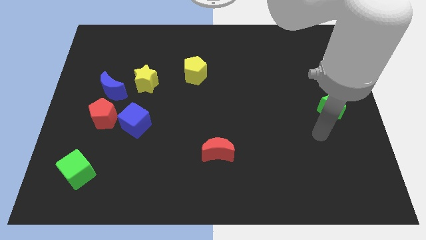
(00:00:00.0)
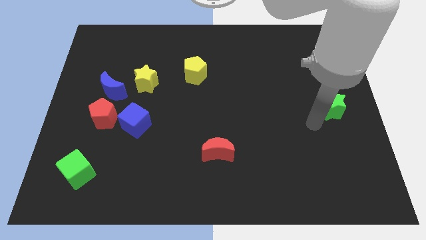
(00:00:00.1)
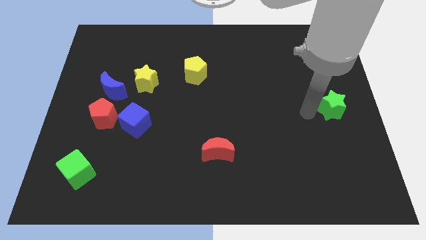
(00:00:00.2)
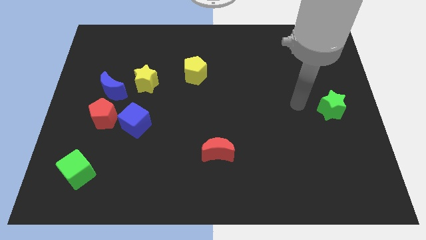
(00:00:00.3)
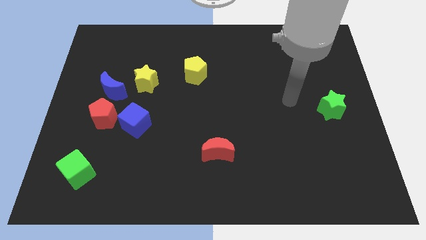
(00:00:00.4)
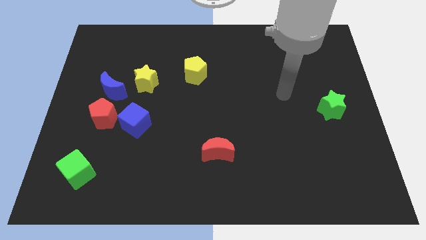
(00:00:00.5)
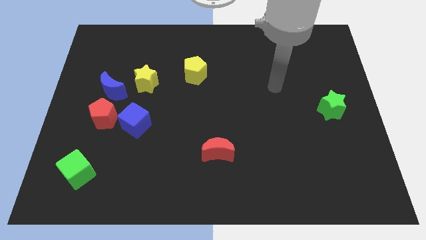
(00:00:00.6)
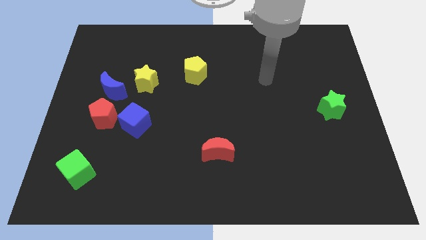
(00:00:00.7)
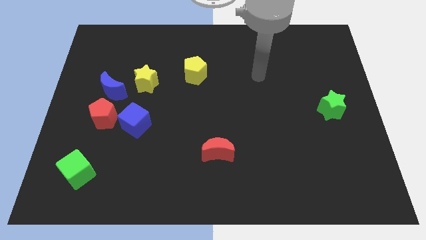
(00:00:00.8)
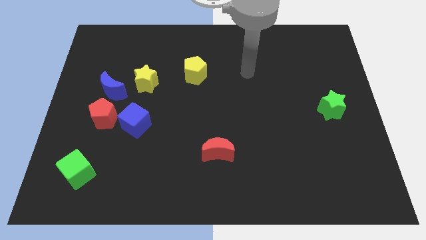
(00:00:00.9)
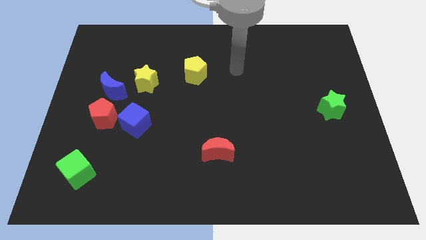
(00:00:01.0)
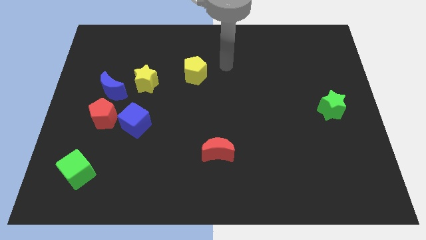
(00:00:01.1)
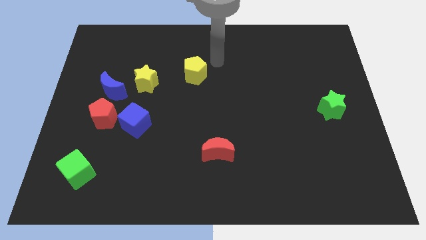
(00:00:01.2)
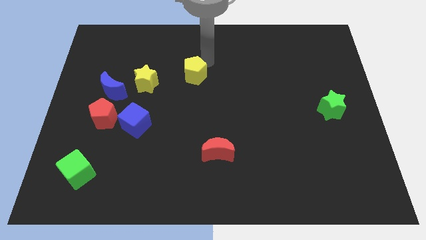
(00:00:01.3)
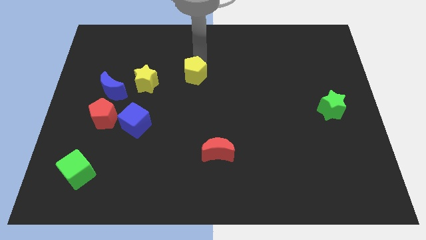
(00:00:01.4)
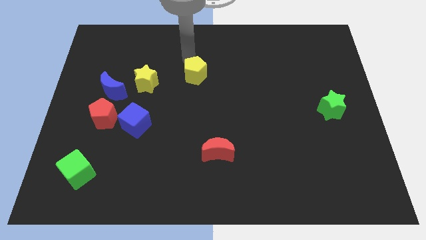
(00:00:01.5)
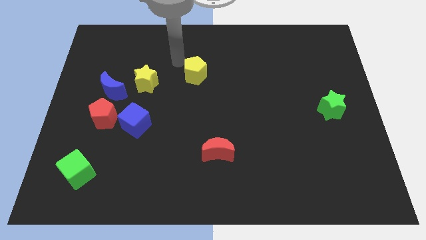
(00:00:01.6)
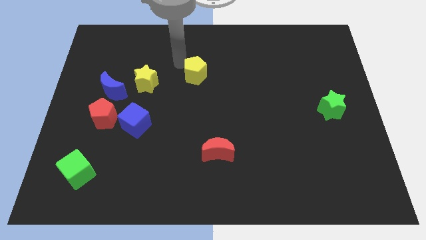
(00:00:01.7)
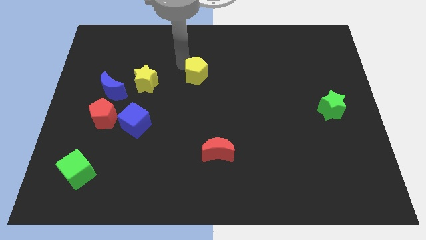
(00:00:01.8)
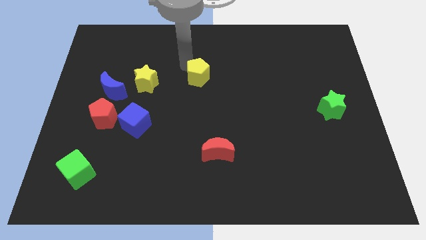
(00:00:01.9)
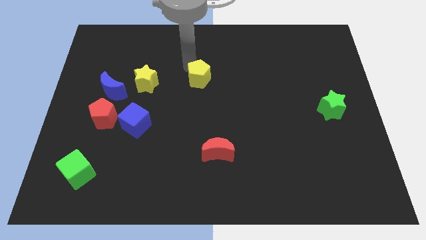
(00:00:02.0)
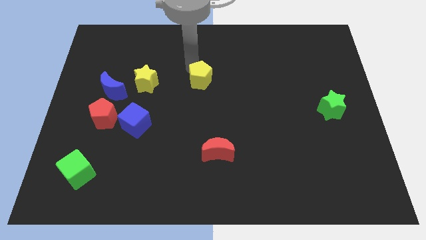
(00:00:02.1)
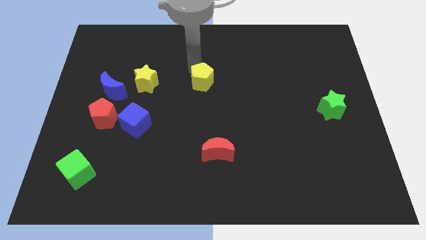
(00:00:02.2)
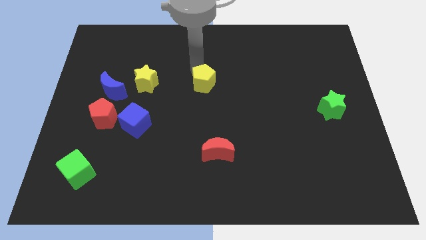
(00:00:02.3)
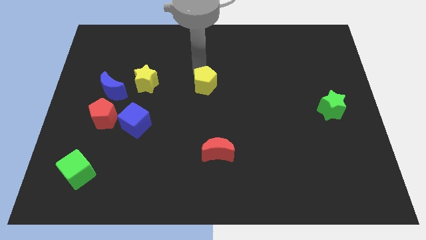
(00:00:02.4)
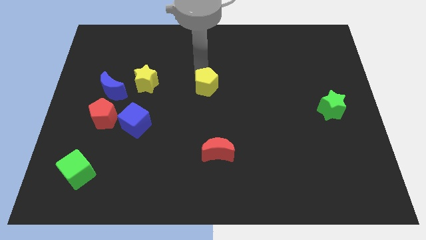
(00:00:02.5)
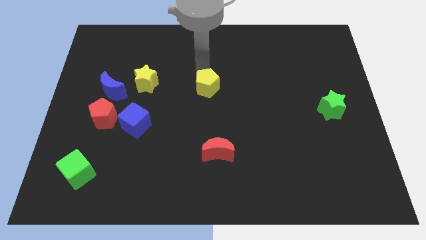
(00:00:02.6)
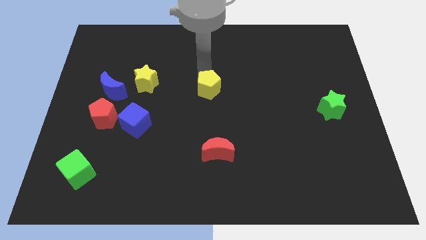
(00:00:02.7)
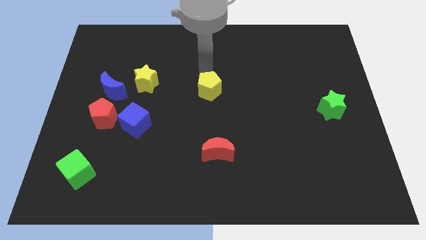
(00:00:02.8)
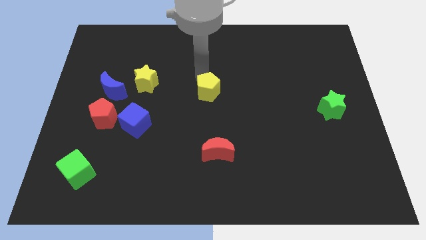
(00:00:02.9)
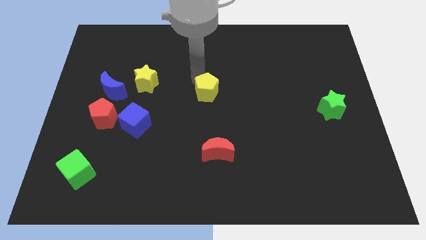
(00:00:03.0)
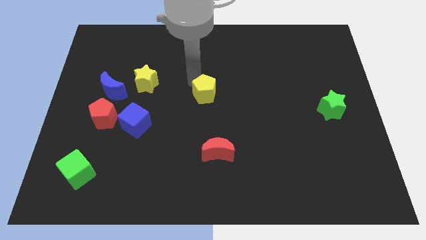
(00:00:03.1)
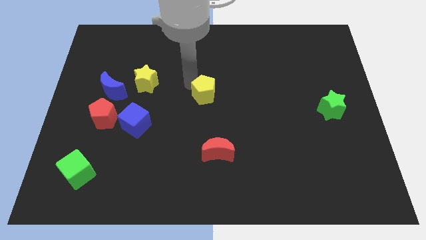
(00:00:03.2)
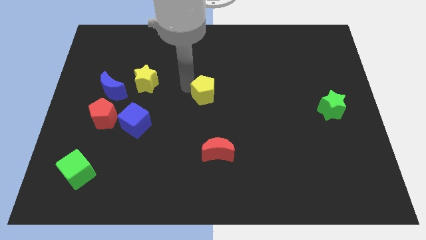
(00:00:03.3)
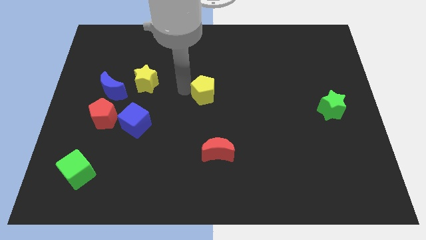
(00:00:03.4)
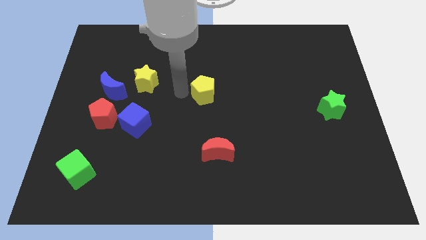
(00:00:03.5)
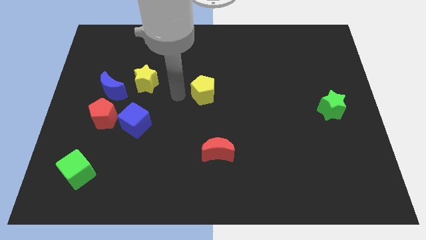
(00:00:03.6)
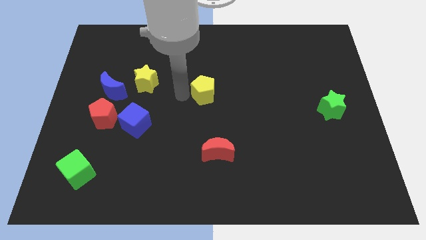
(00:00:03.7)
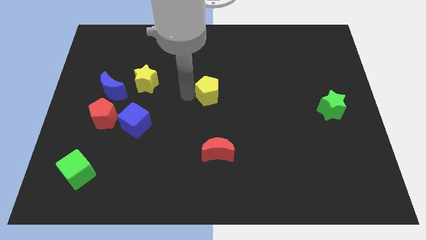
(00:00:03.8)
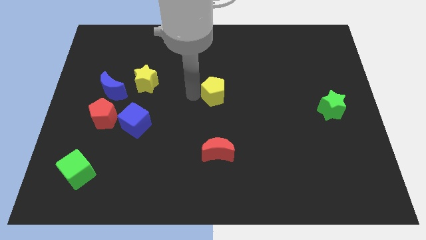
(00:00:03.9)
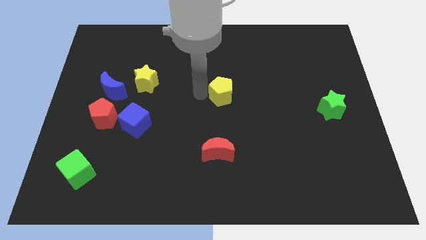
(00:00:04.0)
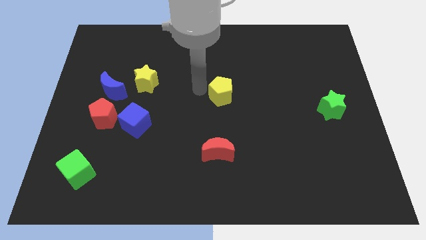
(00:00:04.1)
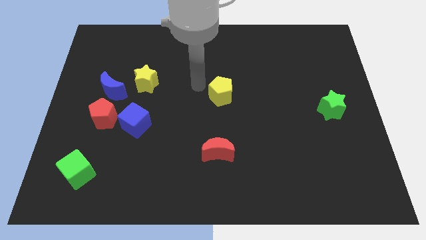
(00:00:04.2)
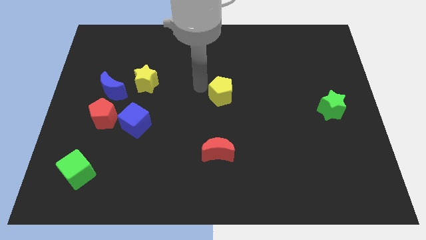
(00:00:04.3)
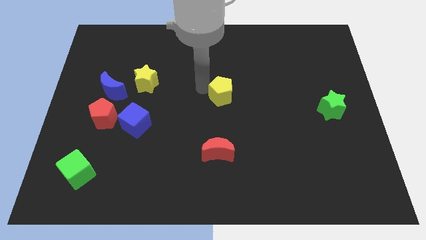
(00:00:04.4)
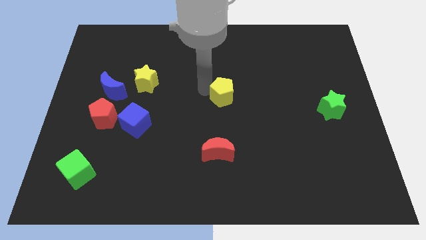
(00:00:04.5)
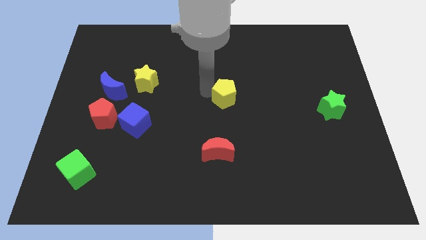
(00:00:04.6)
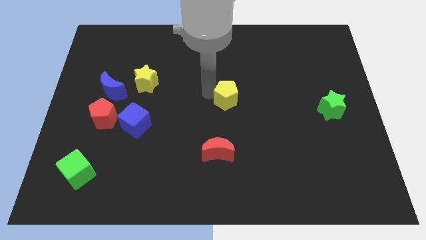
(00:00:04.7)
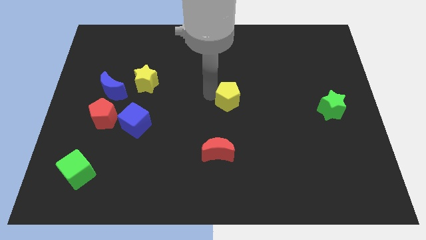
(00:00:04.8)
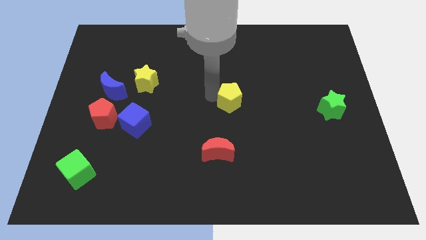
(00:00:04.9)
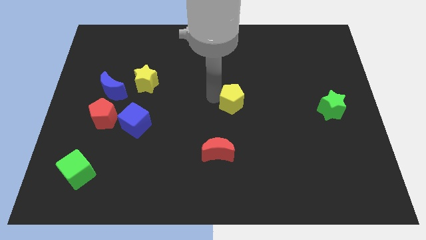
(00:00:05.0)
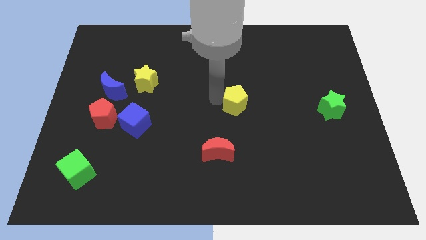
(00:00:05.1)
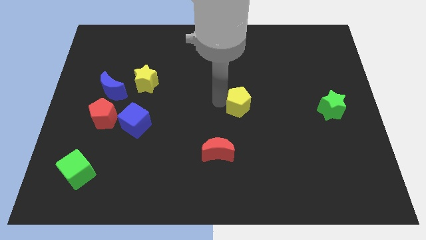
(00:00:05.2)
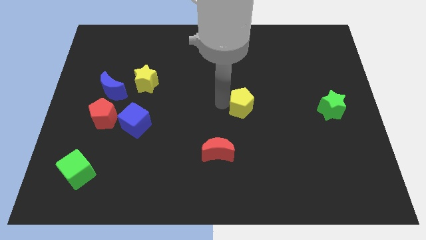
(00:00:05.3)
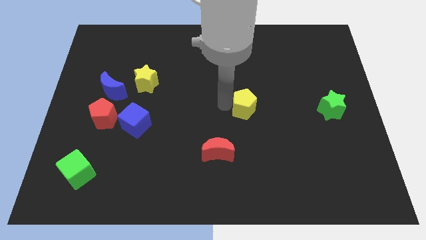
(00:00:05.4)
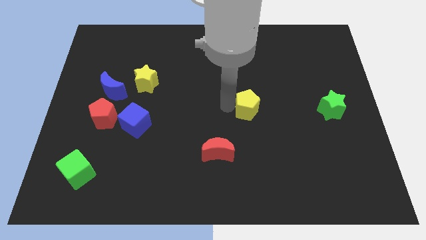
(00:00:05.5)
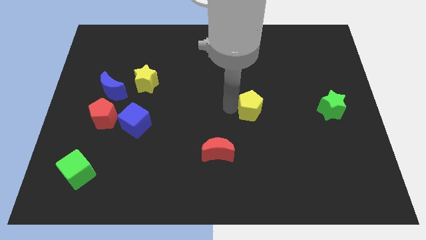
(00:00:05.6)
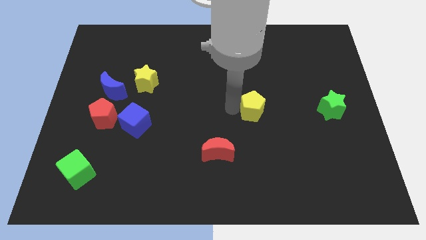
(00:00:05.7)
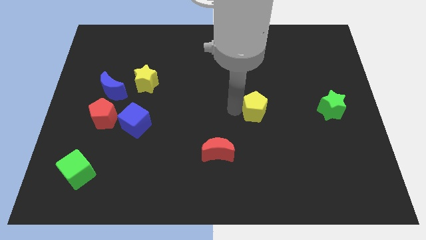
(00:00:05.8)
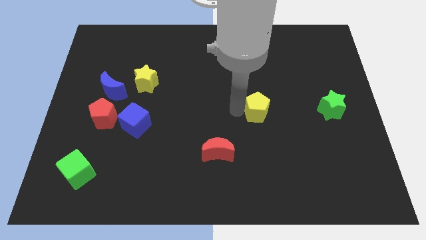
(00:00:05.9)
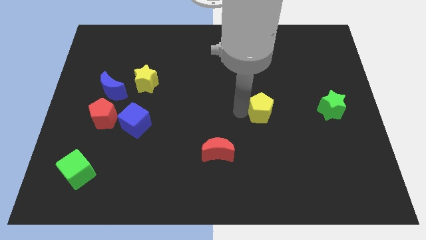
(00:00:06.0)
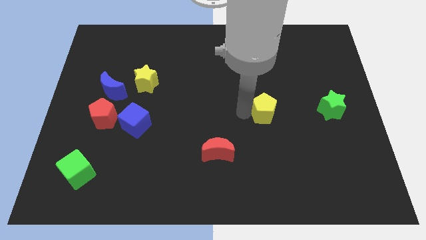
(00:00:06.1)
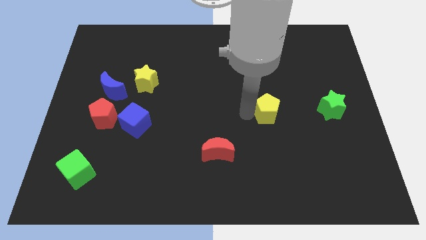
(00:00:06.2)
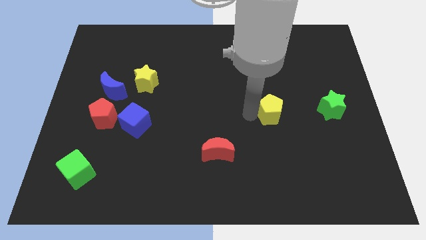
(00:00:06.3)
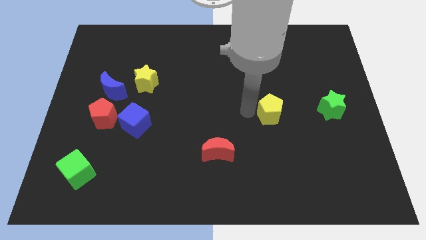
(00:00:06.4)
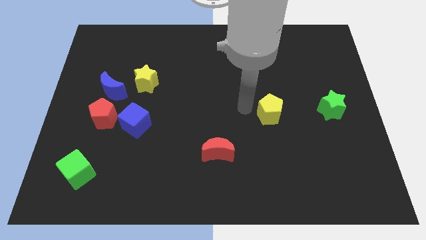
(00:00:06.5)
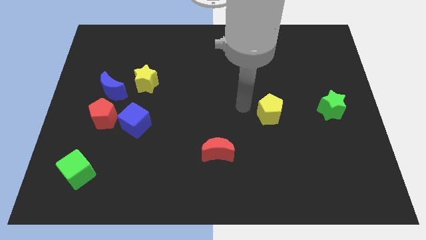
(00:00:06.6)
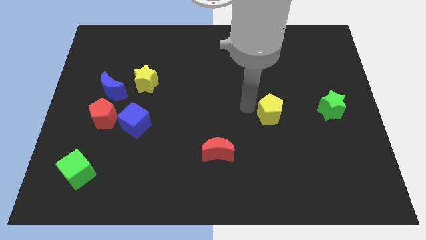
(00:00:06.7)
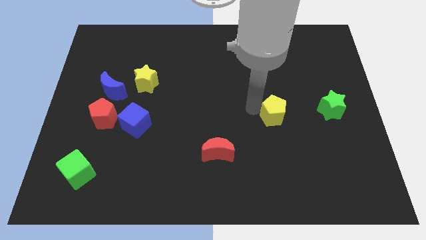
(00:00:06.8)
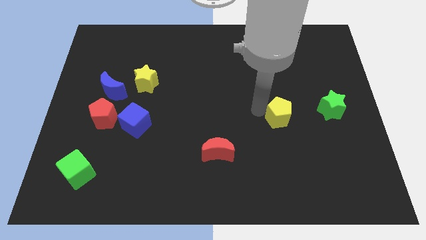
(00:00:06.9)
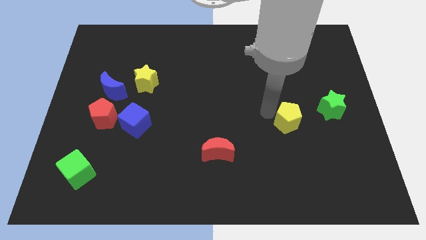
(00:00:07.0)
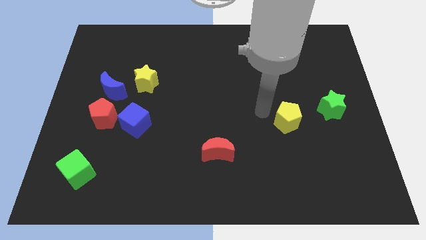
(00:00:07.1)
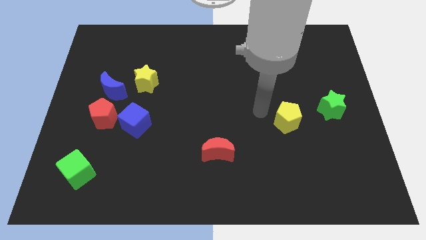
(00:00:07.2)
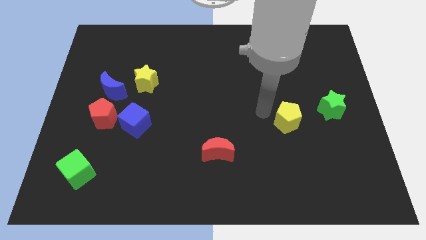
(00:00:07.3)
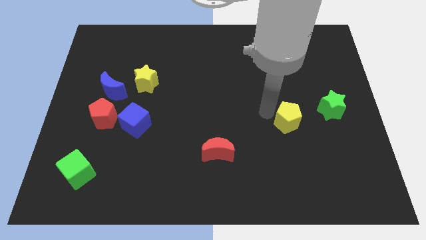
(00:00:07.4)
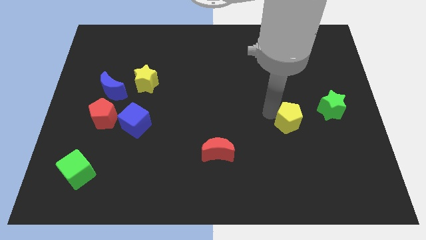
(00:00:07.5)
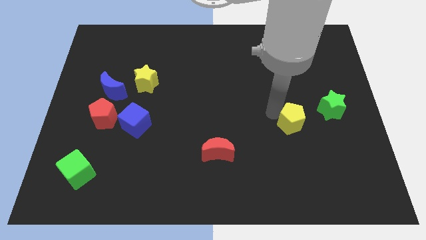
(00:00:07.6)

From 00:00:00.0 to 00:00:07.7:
slide the yellow pentagon to the bottom left side of the green star
